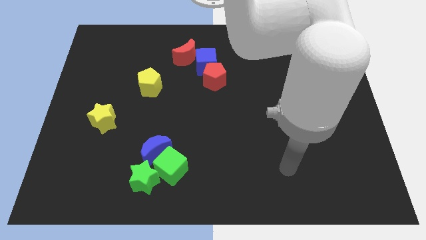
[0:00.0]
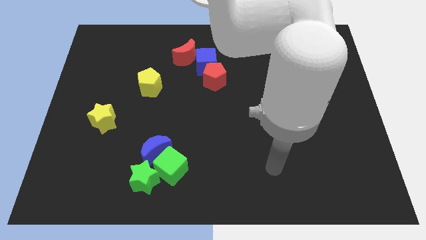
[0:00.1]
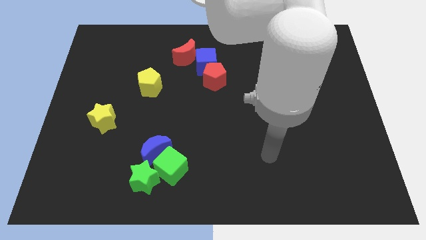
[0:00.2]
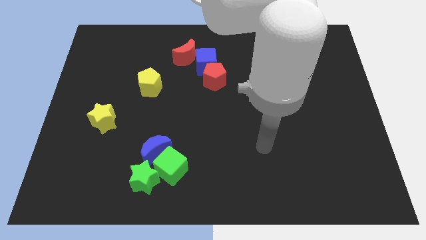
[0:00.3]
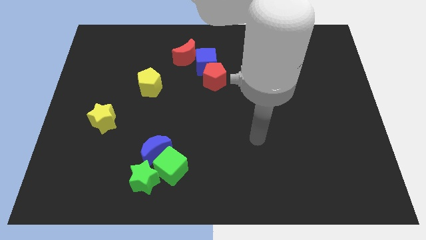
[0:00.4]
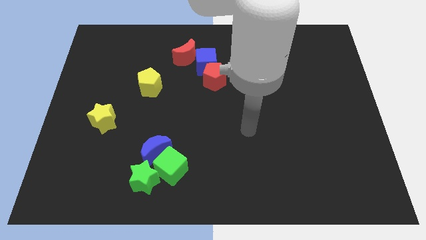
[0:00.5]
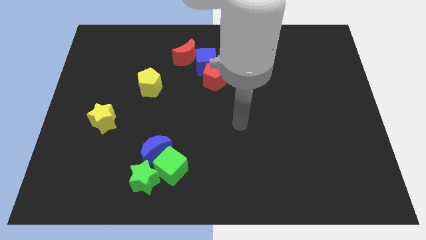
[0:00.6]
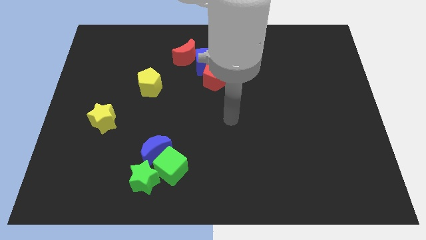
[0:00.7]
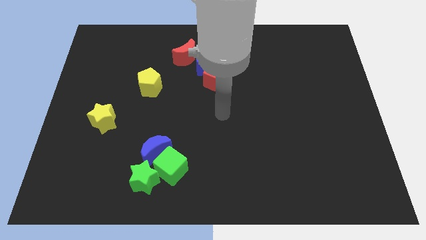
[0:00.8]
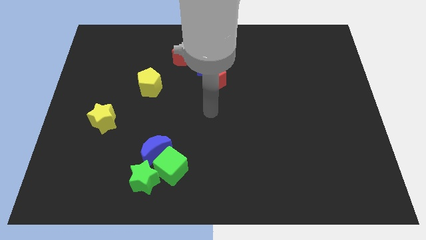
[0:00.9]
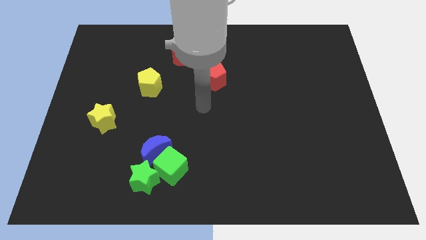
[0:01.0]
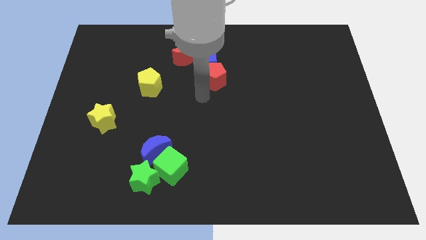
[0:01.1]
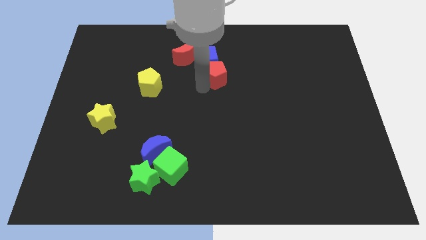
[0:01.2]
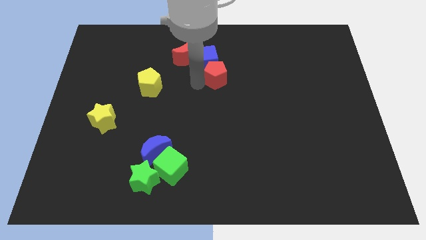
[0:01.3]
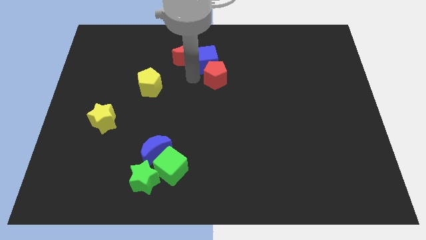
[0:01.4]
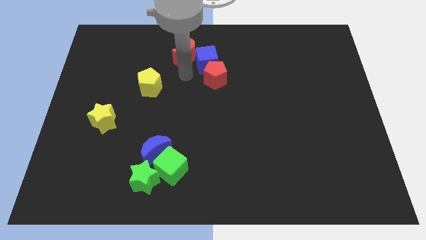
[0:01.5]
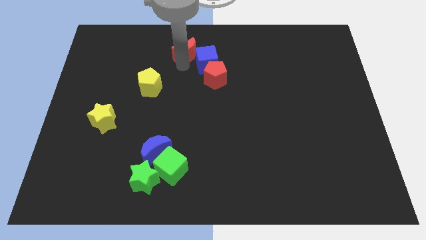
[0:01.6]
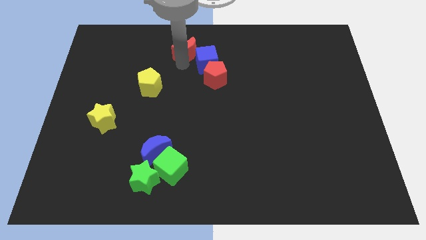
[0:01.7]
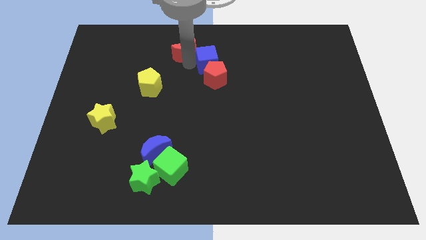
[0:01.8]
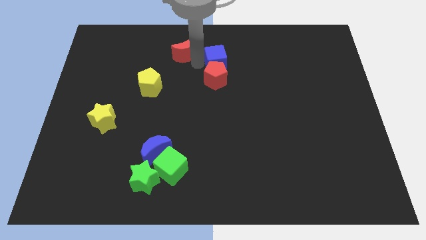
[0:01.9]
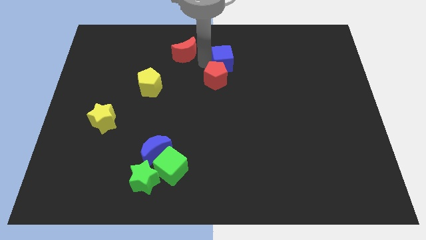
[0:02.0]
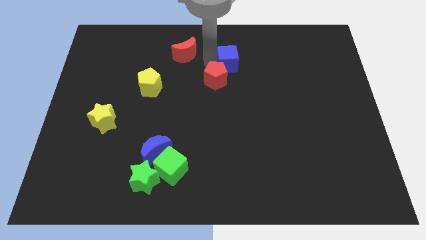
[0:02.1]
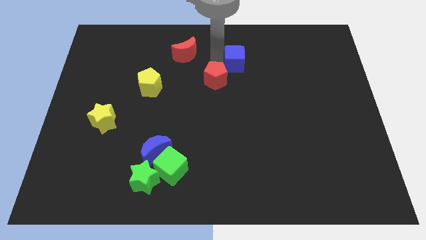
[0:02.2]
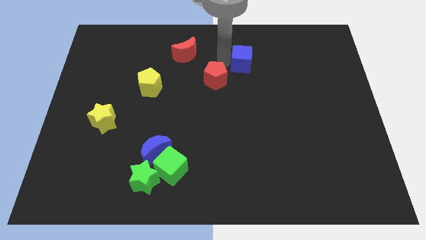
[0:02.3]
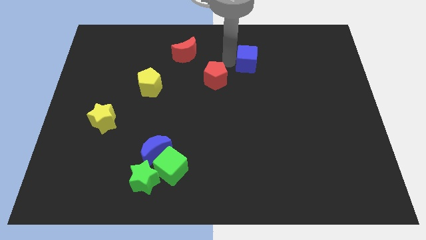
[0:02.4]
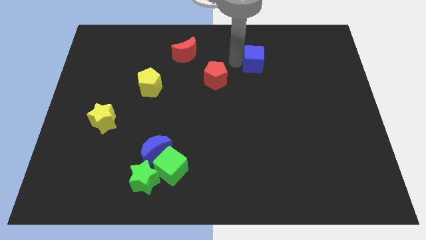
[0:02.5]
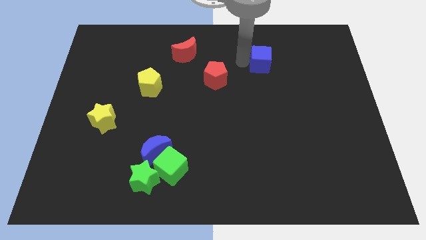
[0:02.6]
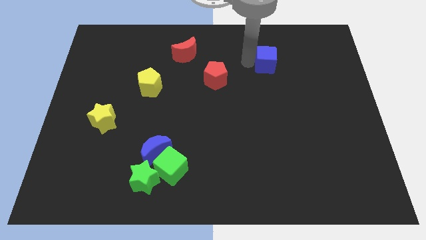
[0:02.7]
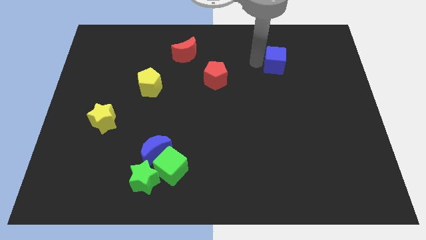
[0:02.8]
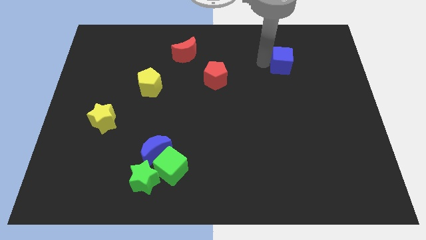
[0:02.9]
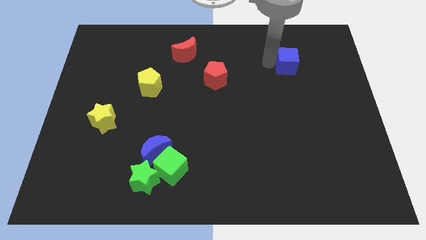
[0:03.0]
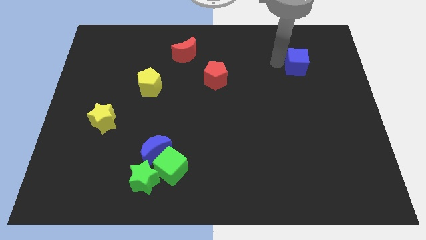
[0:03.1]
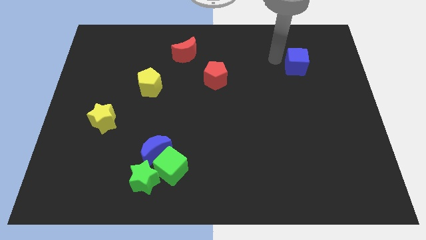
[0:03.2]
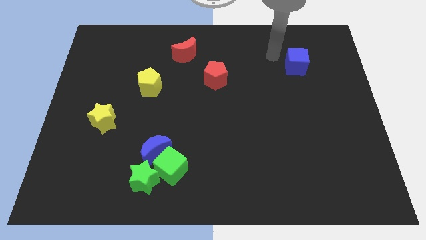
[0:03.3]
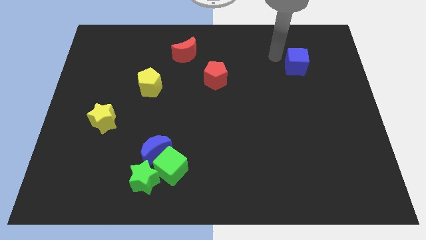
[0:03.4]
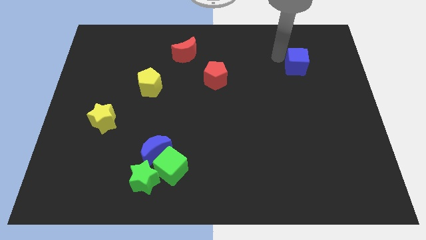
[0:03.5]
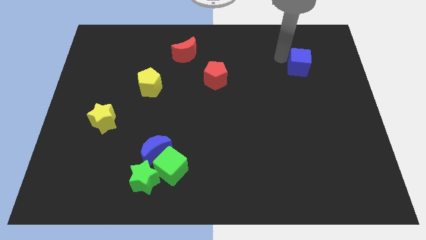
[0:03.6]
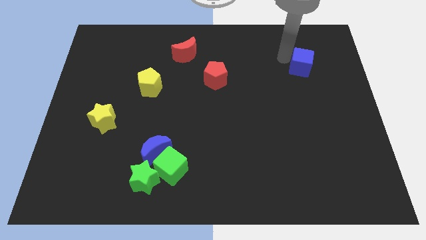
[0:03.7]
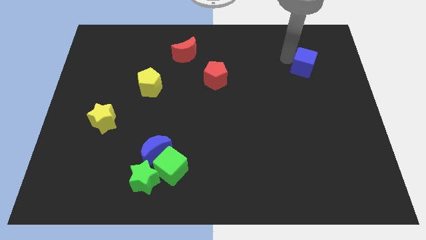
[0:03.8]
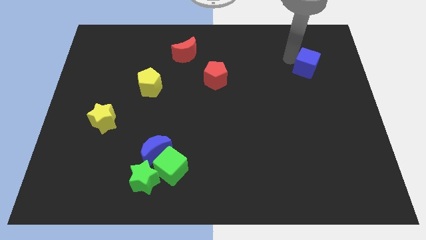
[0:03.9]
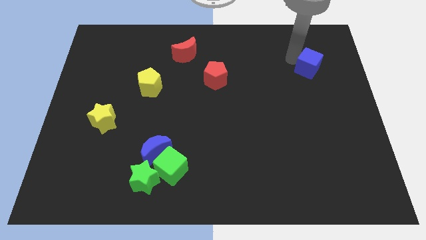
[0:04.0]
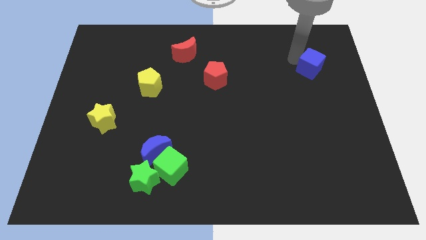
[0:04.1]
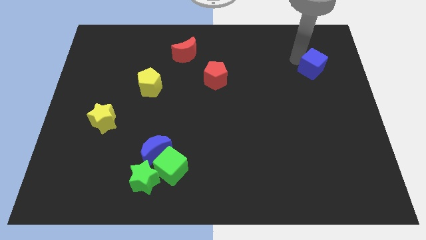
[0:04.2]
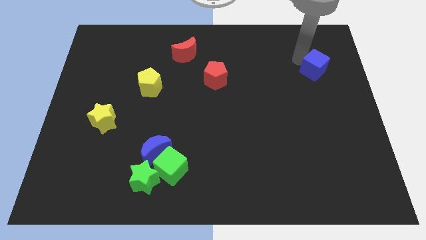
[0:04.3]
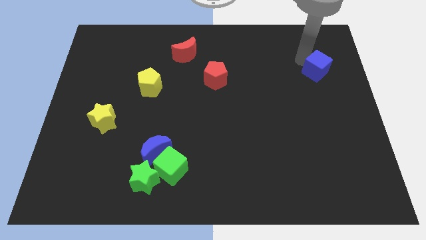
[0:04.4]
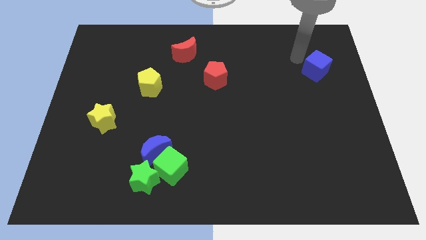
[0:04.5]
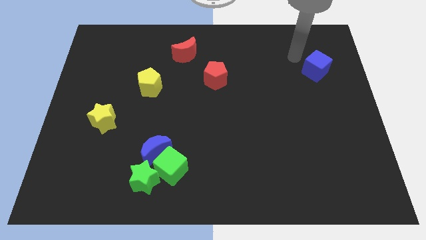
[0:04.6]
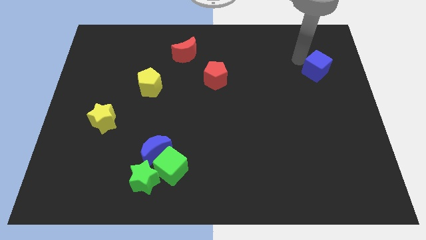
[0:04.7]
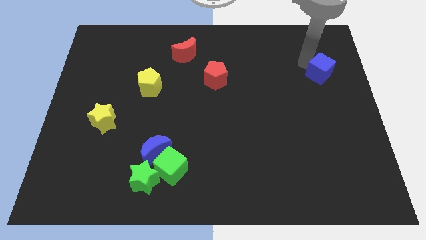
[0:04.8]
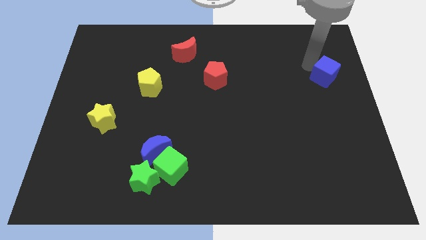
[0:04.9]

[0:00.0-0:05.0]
put the blue cube to the center right

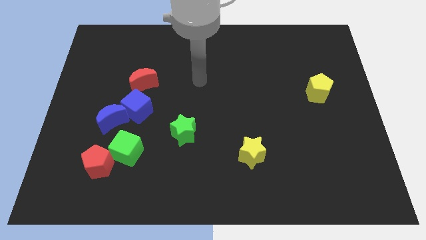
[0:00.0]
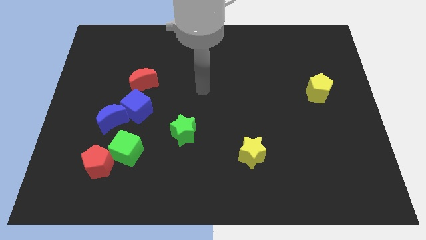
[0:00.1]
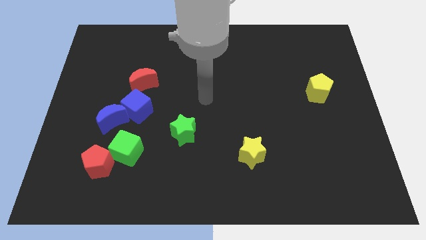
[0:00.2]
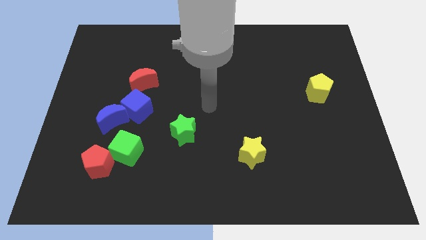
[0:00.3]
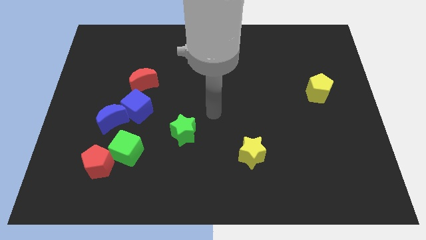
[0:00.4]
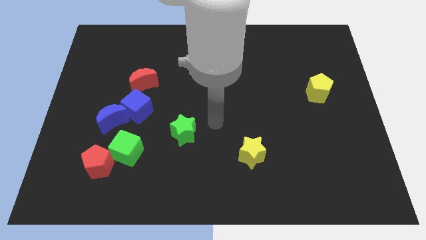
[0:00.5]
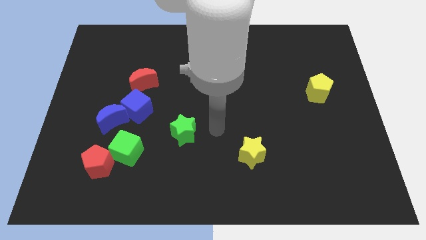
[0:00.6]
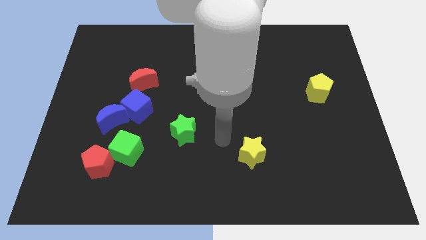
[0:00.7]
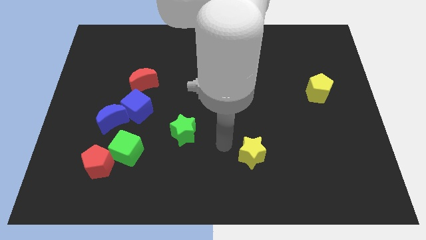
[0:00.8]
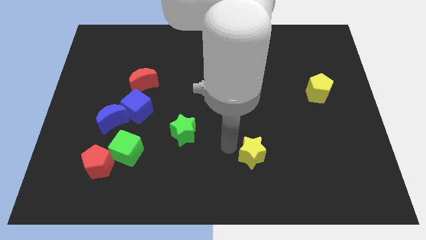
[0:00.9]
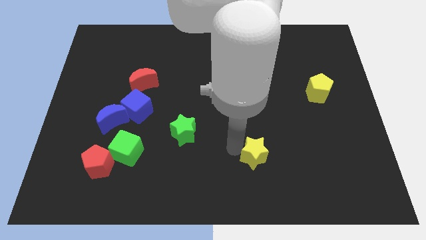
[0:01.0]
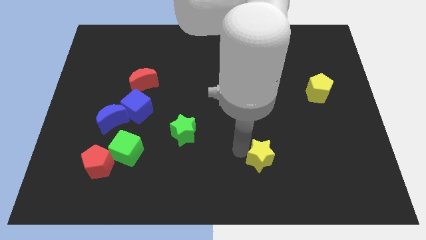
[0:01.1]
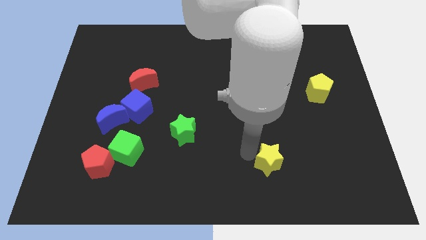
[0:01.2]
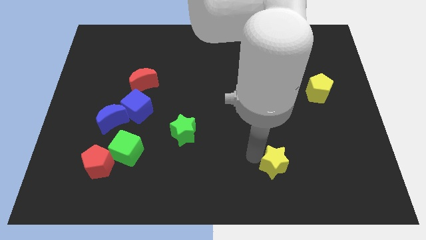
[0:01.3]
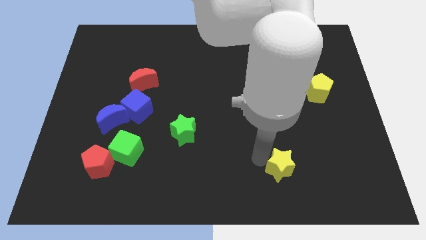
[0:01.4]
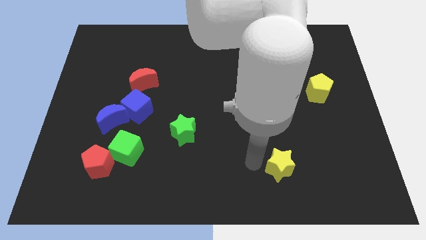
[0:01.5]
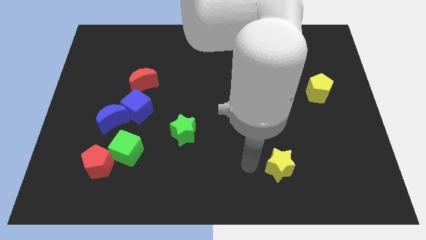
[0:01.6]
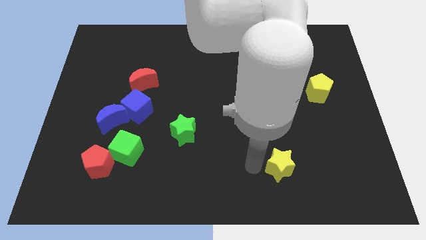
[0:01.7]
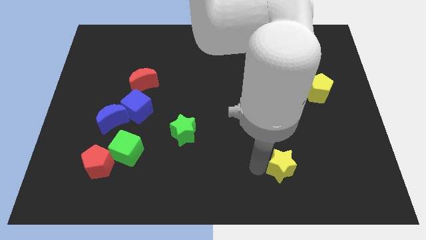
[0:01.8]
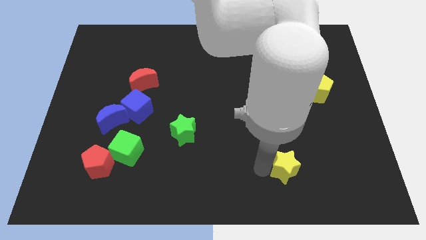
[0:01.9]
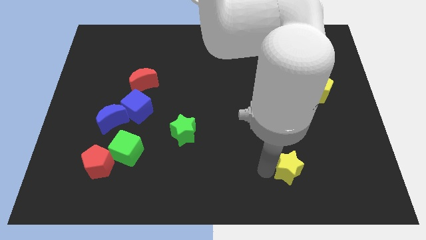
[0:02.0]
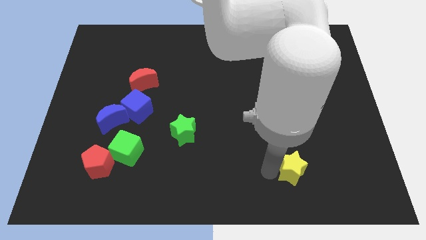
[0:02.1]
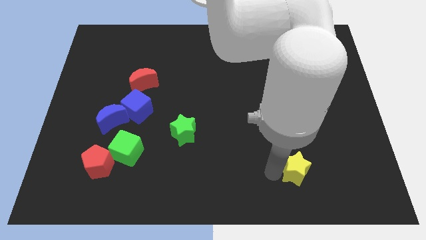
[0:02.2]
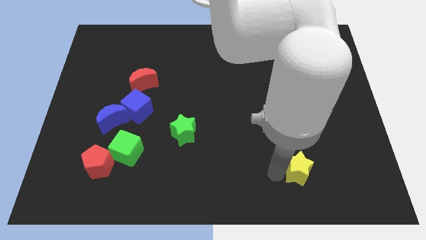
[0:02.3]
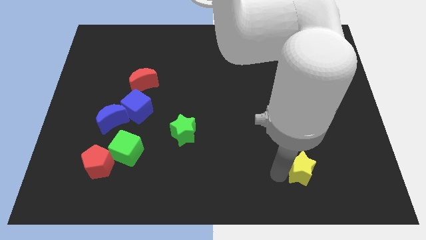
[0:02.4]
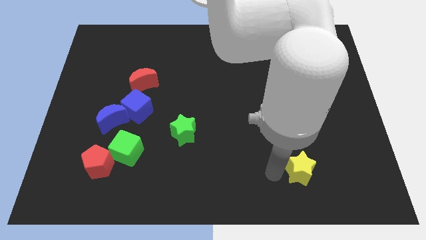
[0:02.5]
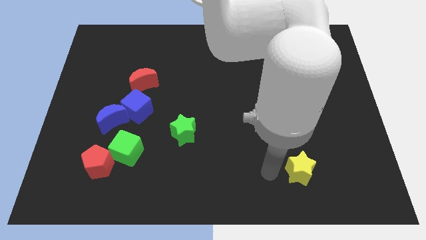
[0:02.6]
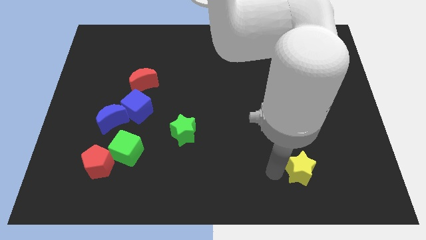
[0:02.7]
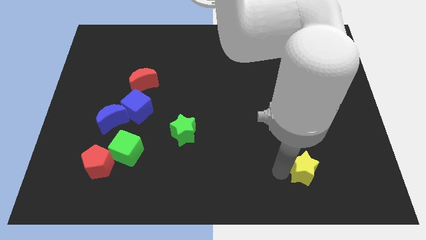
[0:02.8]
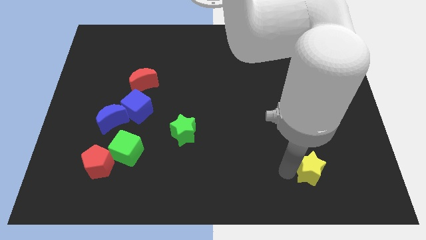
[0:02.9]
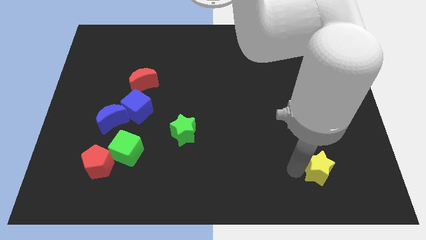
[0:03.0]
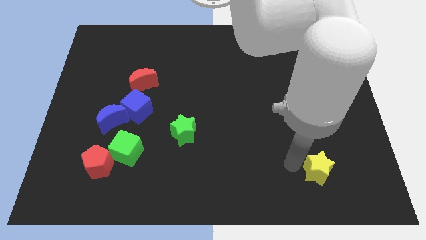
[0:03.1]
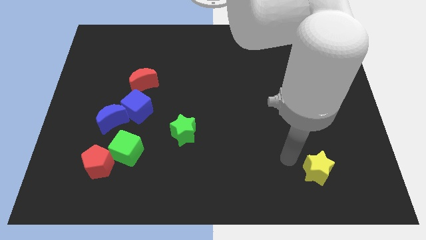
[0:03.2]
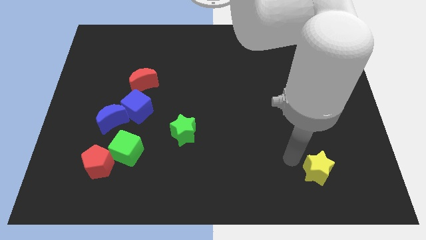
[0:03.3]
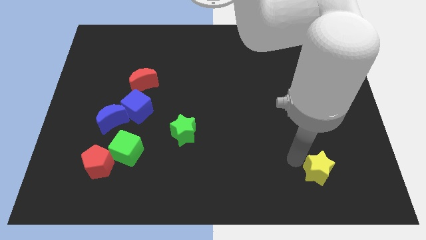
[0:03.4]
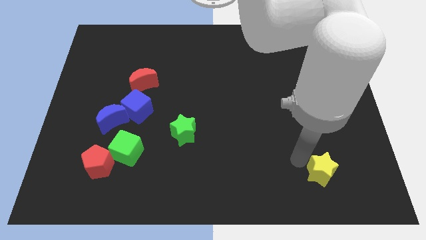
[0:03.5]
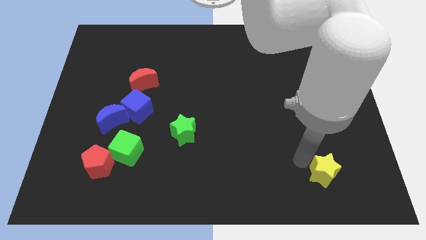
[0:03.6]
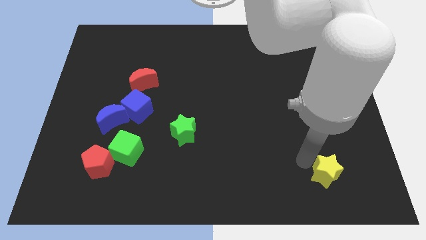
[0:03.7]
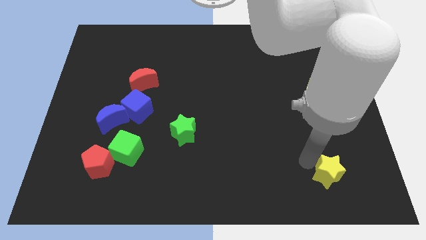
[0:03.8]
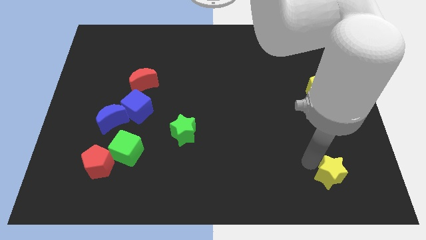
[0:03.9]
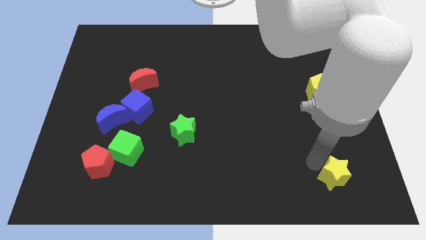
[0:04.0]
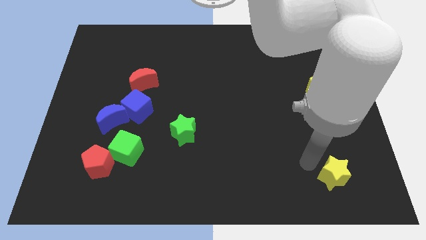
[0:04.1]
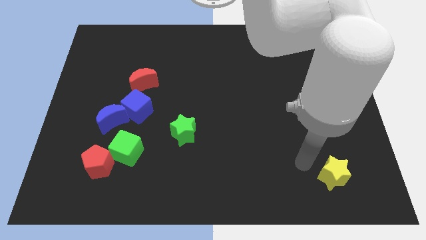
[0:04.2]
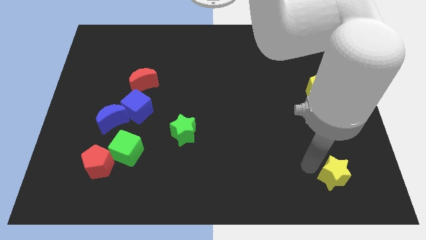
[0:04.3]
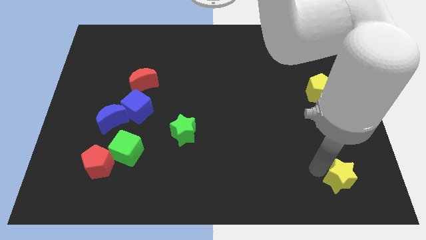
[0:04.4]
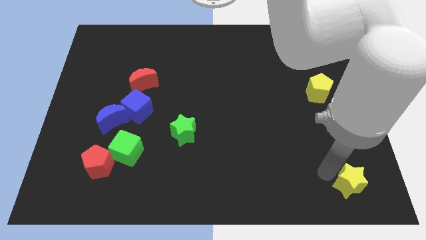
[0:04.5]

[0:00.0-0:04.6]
slide the yellow star to the bottom right of the board
